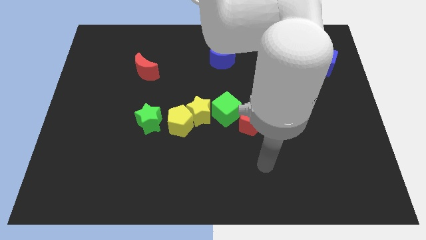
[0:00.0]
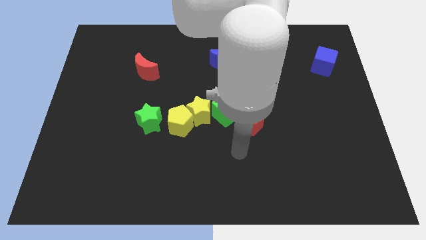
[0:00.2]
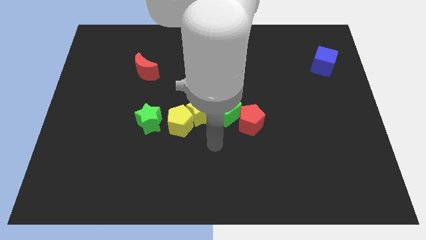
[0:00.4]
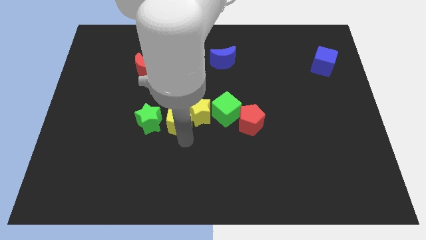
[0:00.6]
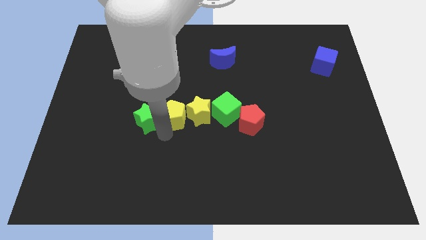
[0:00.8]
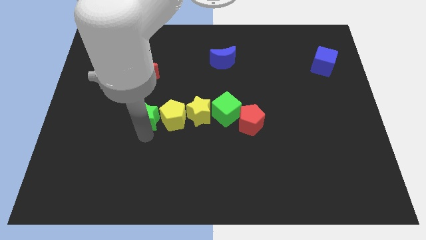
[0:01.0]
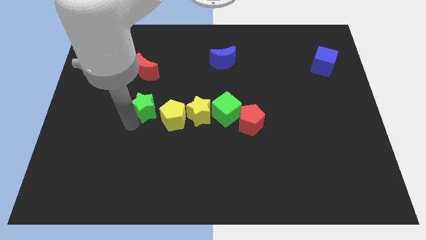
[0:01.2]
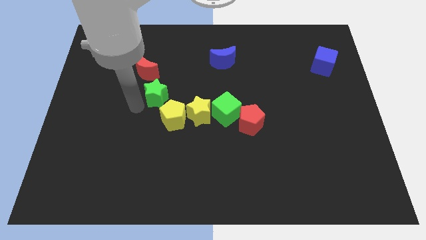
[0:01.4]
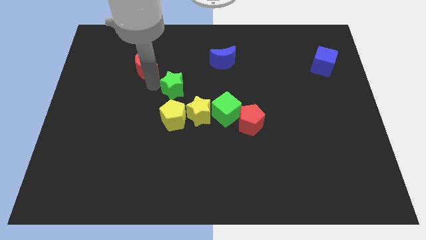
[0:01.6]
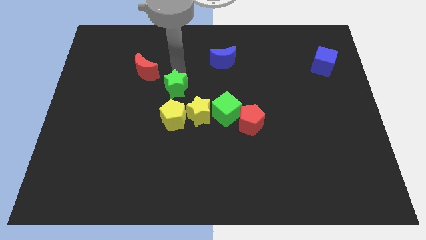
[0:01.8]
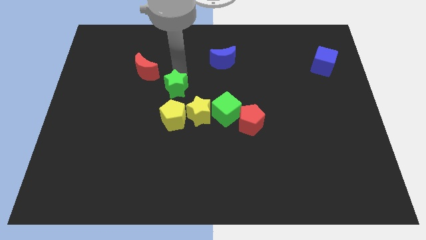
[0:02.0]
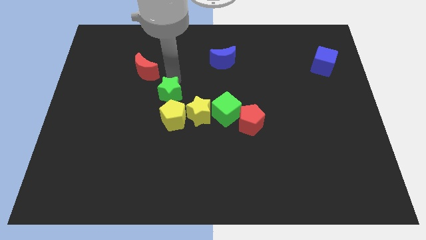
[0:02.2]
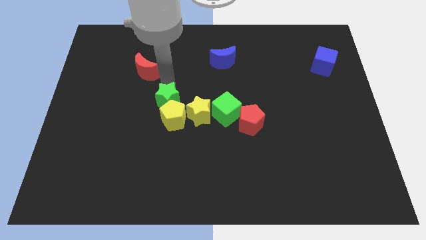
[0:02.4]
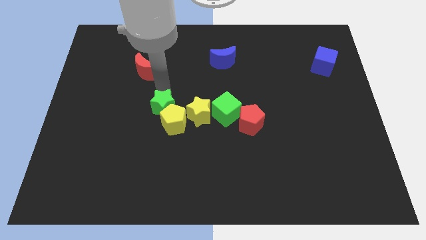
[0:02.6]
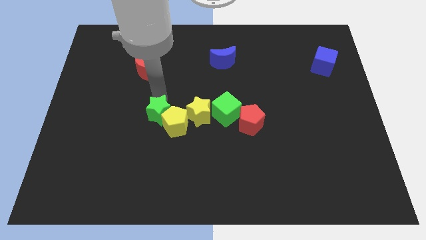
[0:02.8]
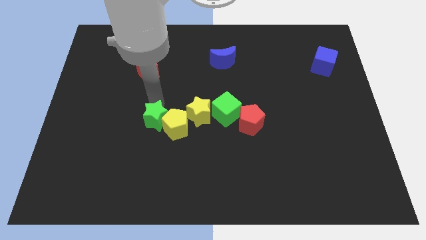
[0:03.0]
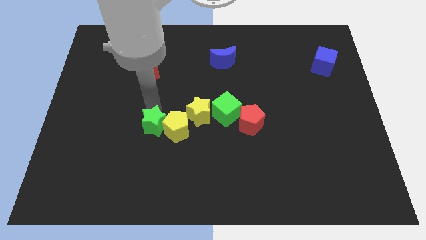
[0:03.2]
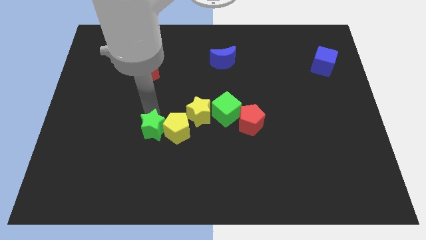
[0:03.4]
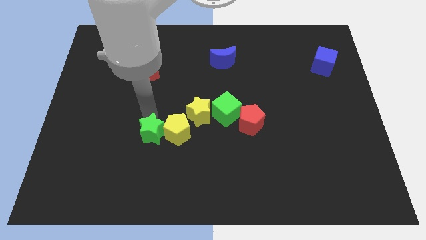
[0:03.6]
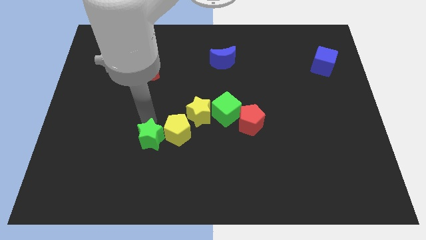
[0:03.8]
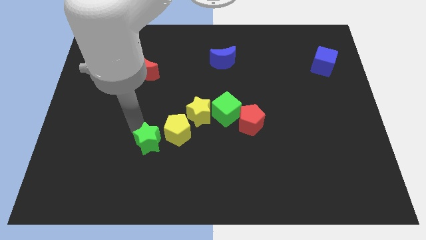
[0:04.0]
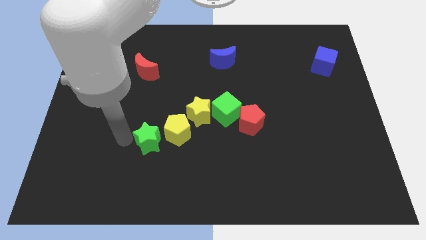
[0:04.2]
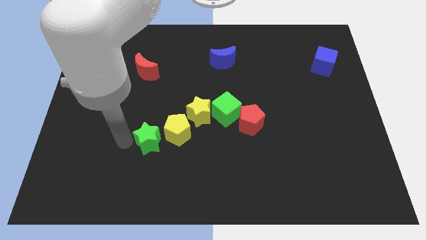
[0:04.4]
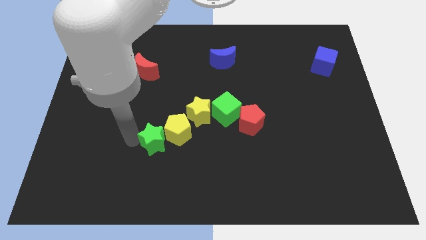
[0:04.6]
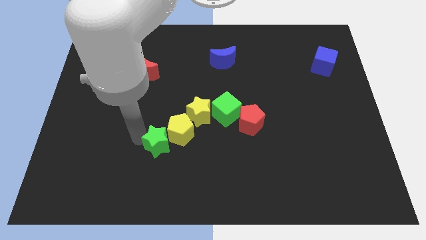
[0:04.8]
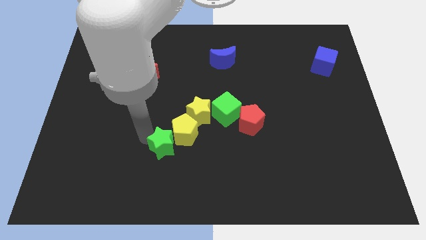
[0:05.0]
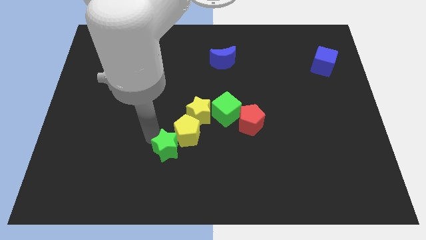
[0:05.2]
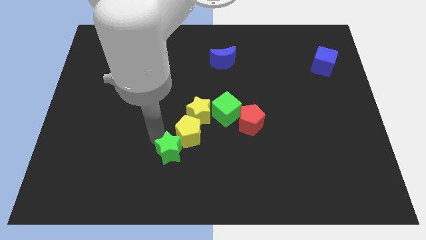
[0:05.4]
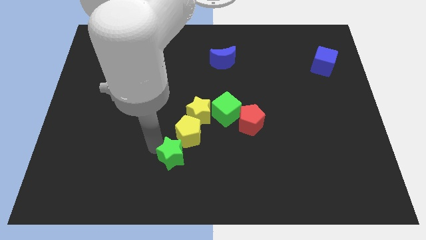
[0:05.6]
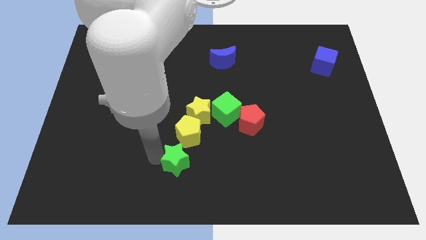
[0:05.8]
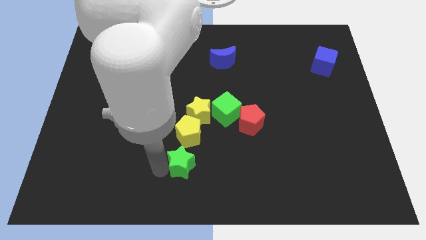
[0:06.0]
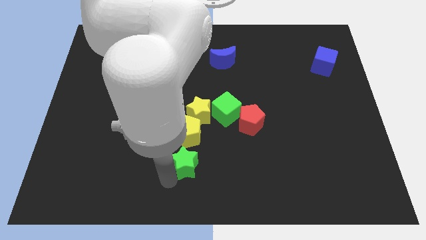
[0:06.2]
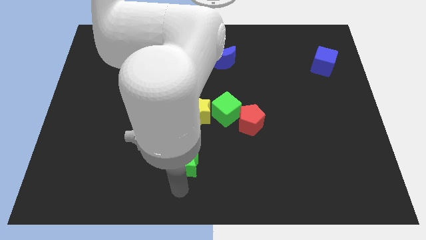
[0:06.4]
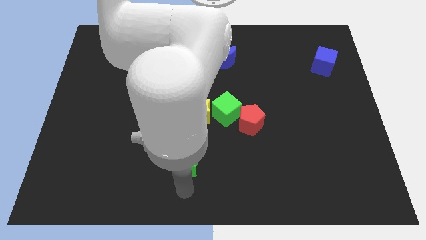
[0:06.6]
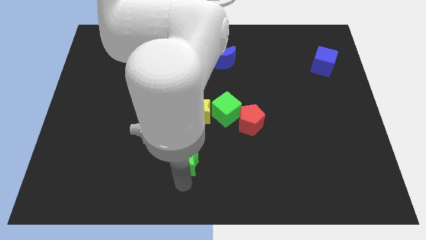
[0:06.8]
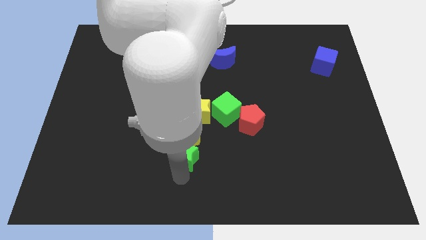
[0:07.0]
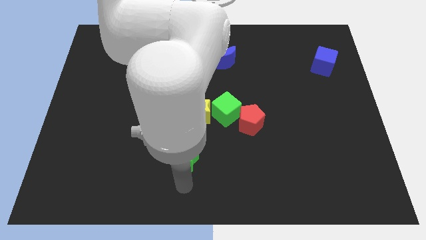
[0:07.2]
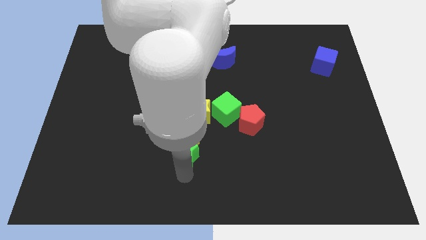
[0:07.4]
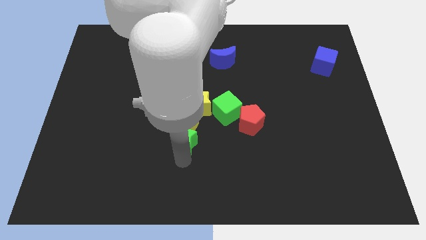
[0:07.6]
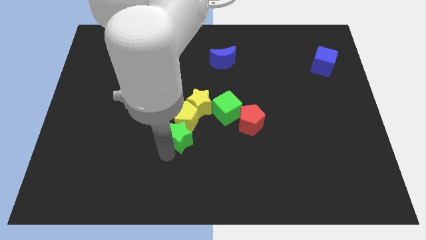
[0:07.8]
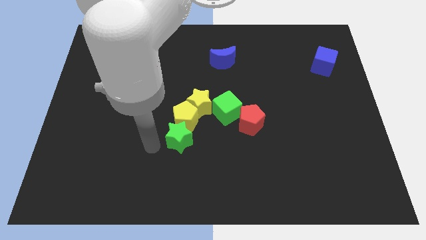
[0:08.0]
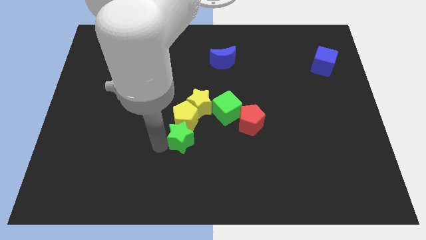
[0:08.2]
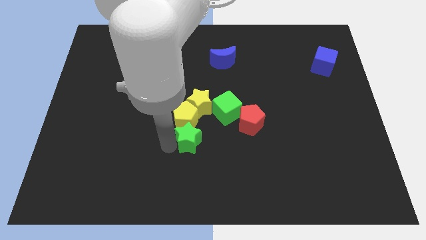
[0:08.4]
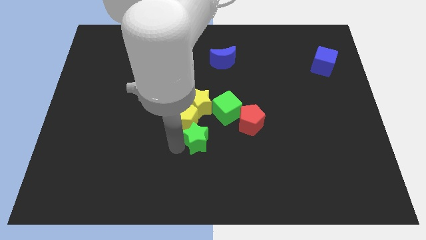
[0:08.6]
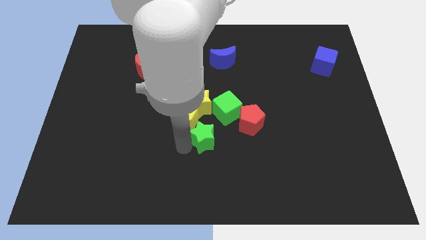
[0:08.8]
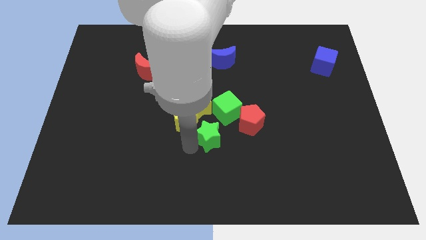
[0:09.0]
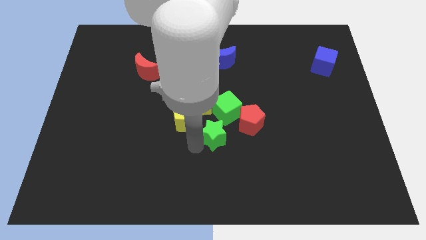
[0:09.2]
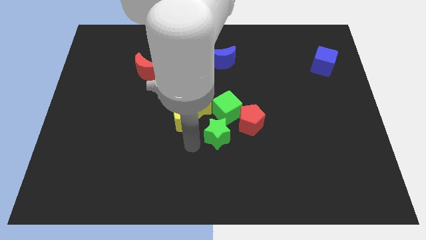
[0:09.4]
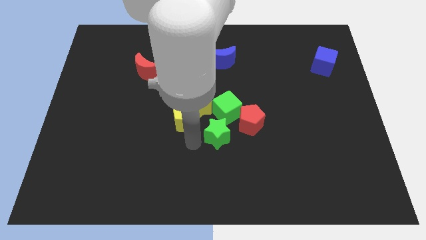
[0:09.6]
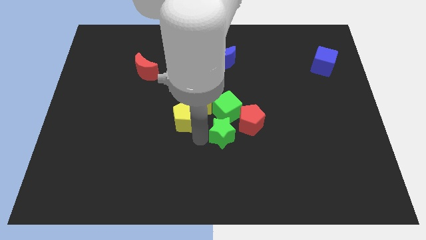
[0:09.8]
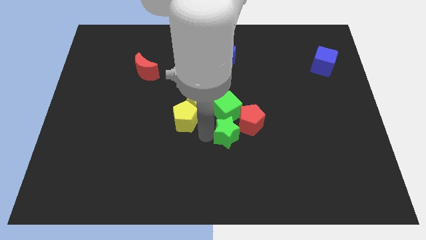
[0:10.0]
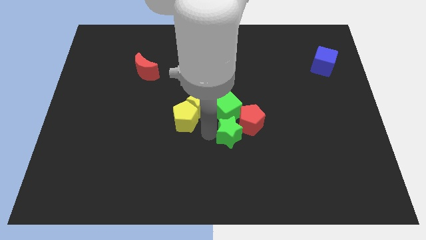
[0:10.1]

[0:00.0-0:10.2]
slide the green star to the red pentagon

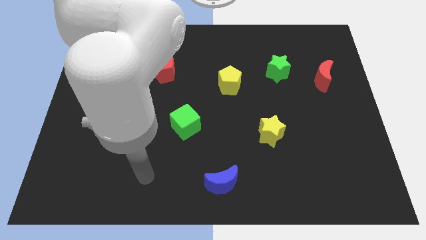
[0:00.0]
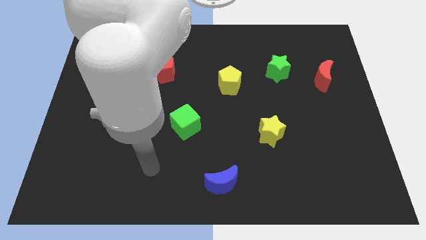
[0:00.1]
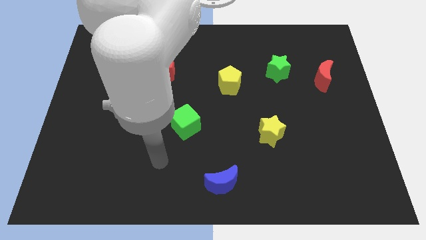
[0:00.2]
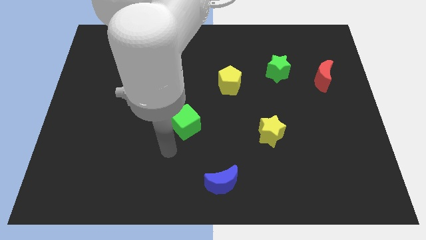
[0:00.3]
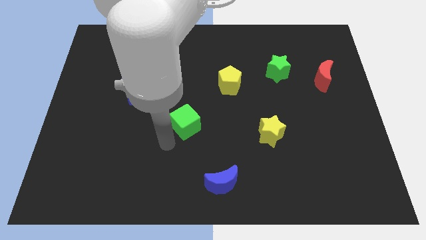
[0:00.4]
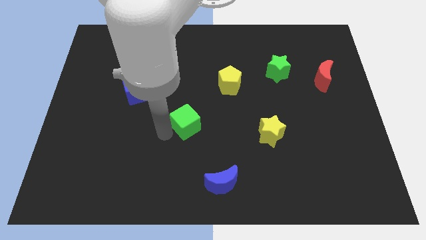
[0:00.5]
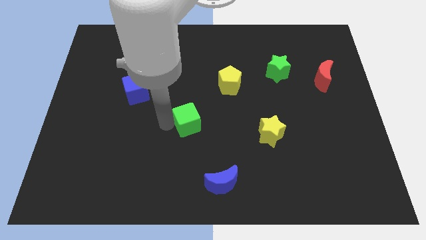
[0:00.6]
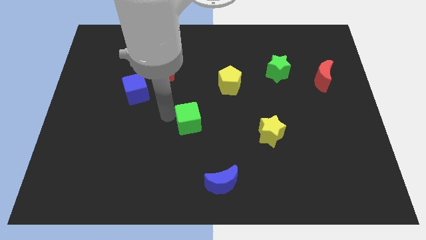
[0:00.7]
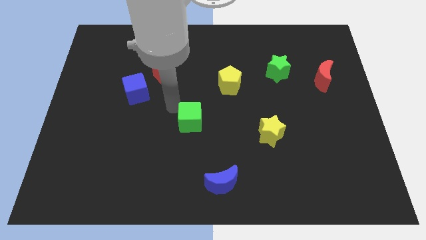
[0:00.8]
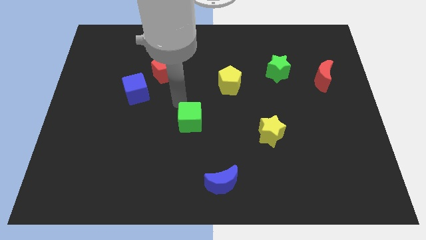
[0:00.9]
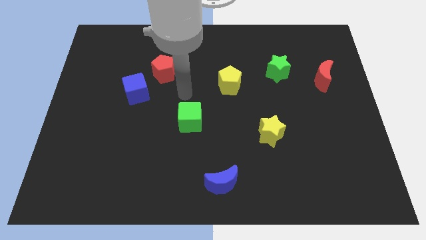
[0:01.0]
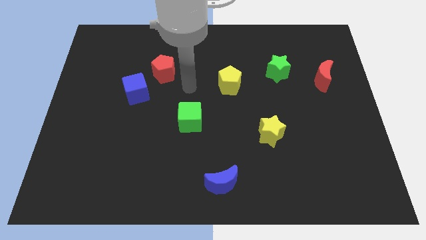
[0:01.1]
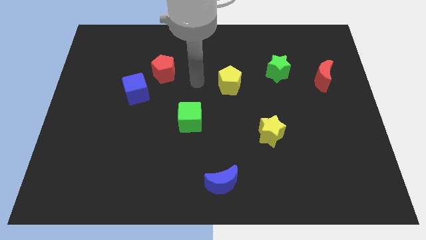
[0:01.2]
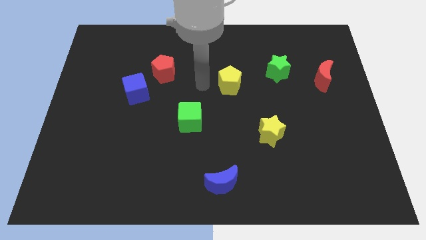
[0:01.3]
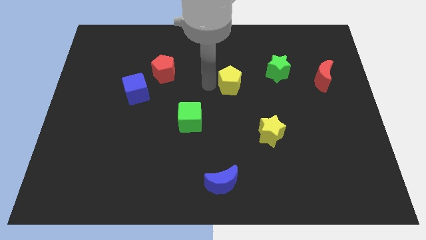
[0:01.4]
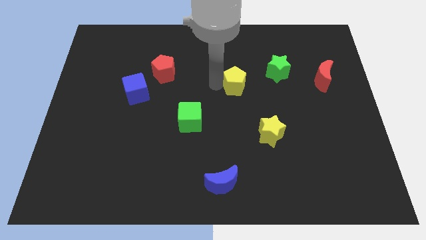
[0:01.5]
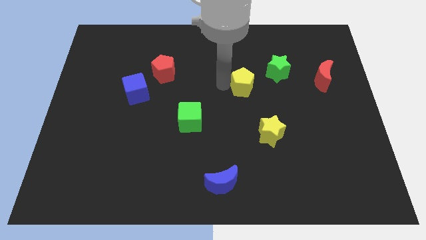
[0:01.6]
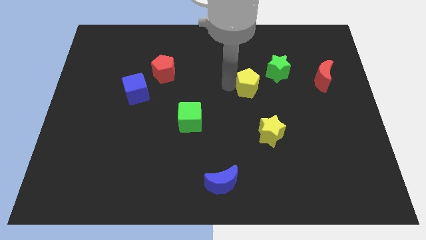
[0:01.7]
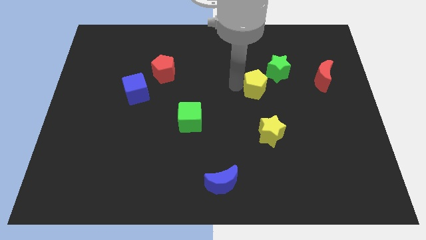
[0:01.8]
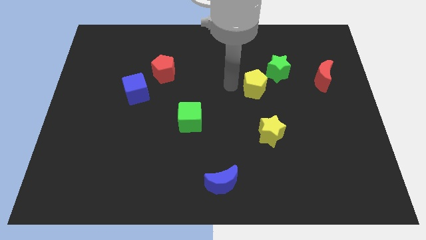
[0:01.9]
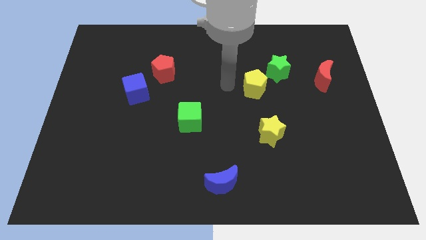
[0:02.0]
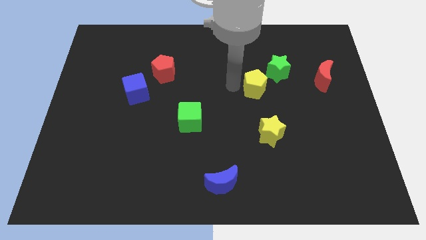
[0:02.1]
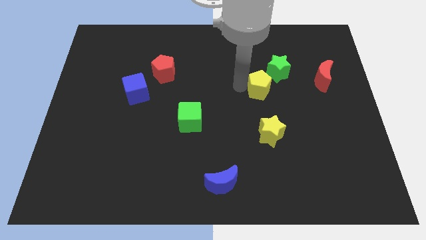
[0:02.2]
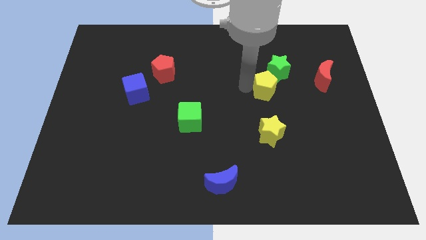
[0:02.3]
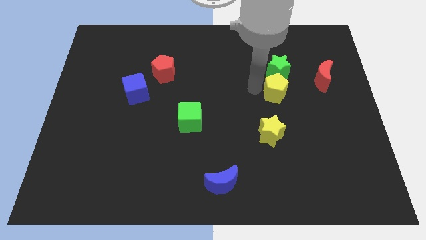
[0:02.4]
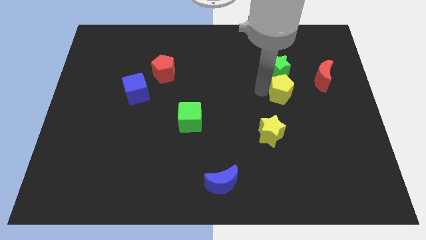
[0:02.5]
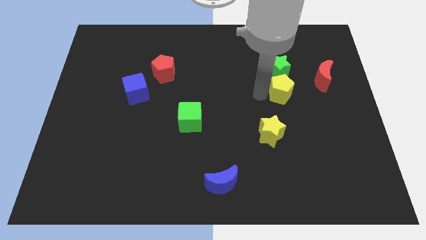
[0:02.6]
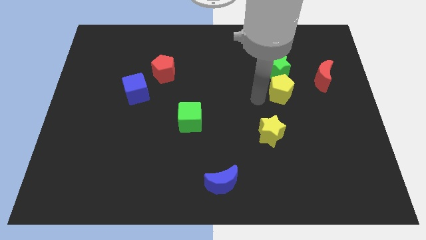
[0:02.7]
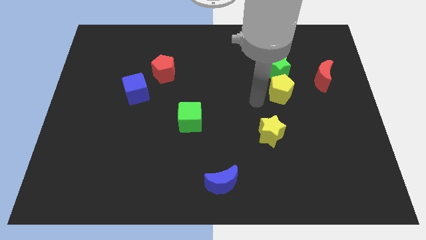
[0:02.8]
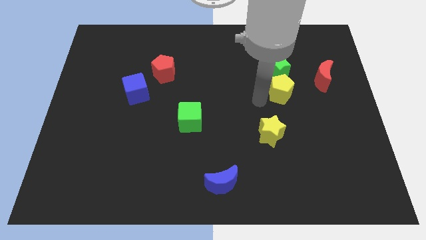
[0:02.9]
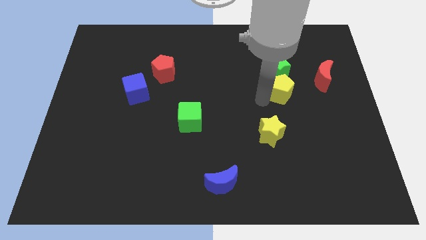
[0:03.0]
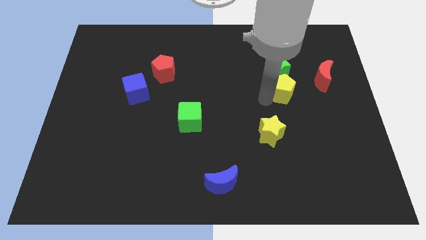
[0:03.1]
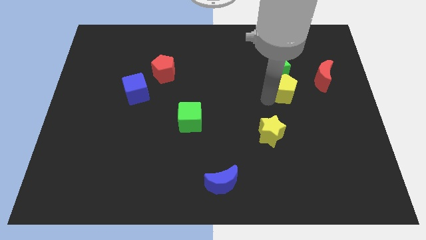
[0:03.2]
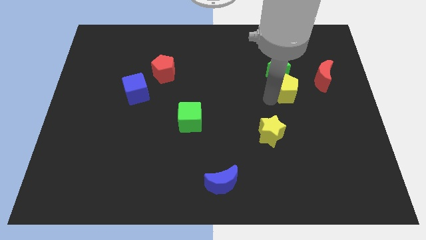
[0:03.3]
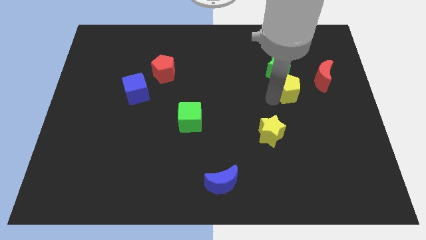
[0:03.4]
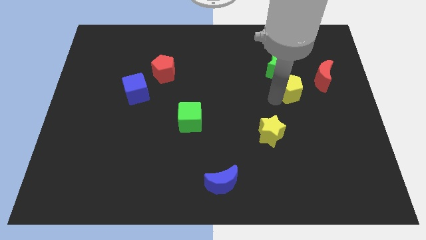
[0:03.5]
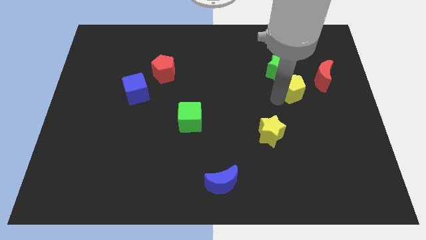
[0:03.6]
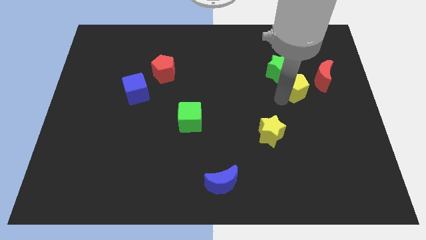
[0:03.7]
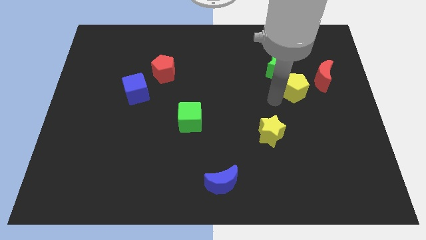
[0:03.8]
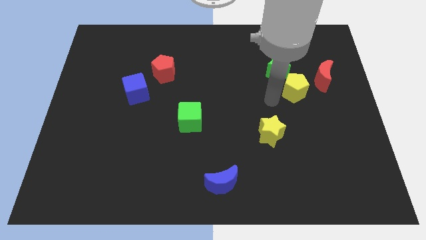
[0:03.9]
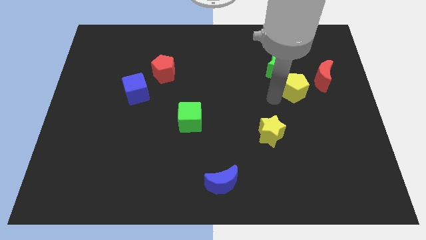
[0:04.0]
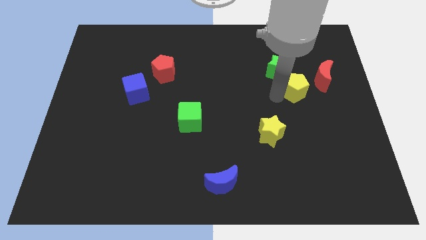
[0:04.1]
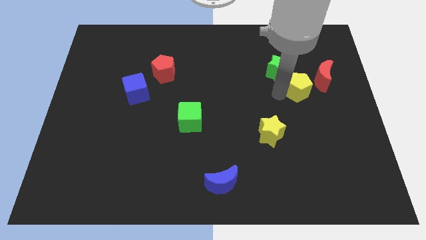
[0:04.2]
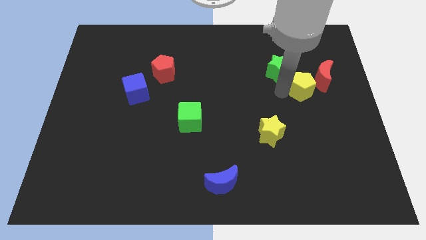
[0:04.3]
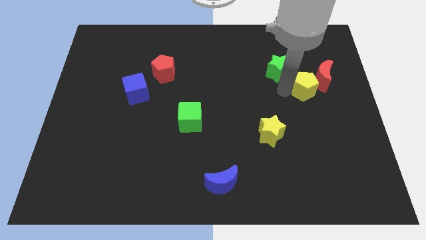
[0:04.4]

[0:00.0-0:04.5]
push the yellow pentagon towards the red moon
